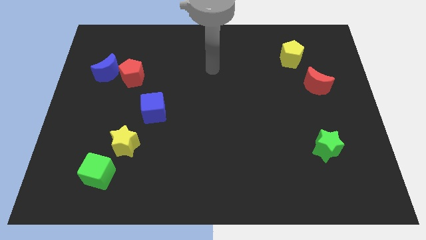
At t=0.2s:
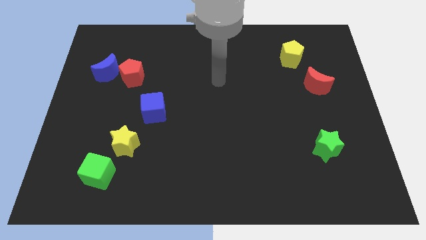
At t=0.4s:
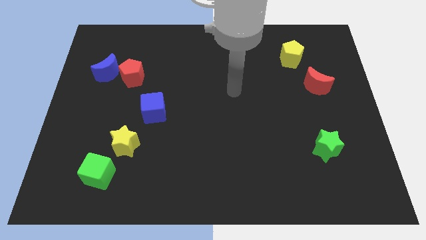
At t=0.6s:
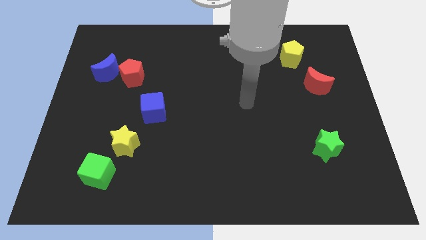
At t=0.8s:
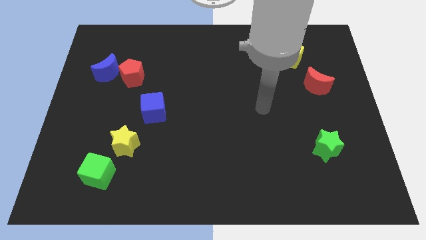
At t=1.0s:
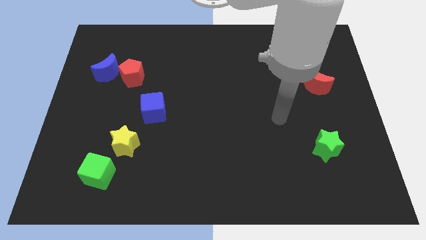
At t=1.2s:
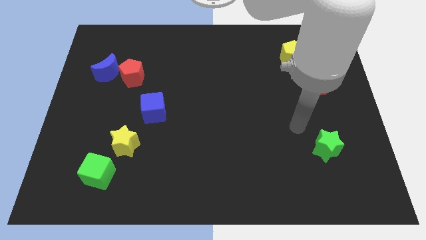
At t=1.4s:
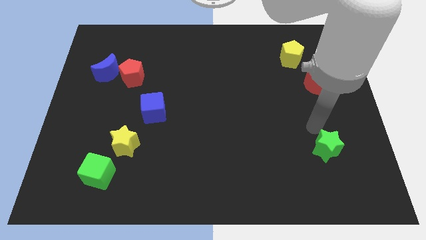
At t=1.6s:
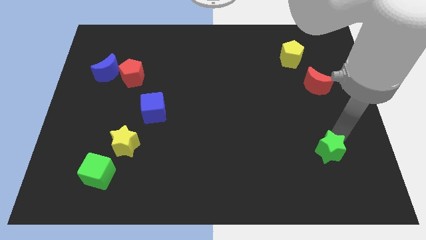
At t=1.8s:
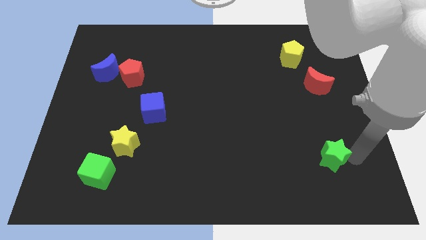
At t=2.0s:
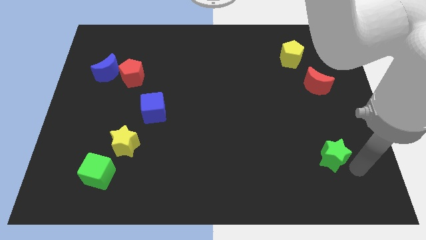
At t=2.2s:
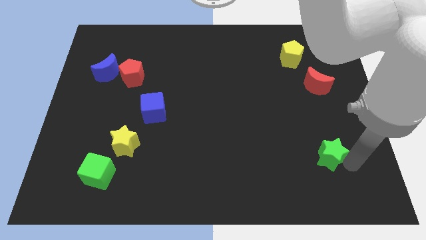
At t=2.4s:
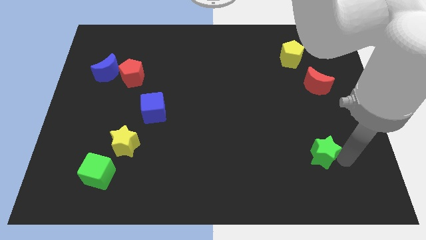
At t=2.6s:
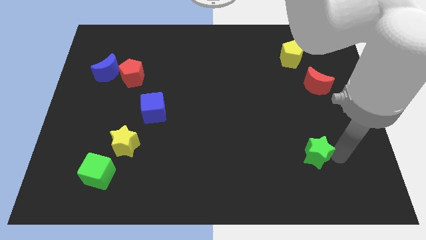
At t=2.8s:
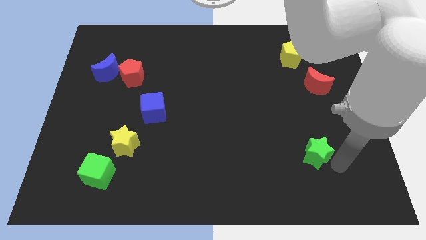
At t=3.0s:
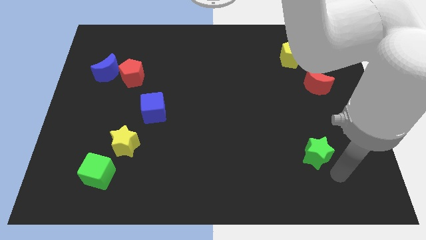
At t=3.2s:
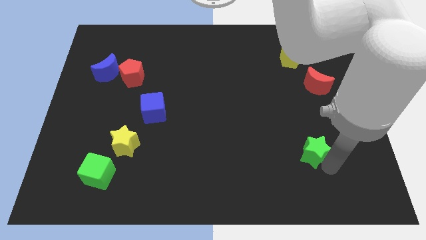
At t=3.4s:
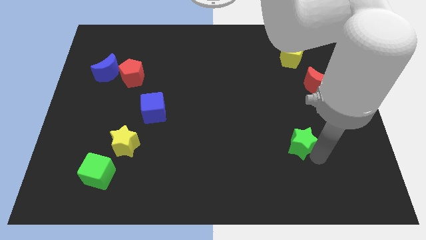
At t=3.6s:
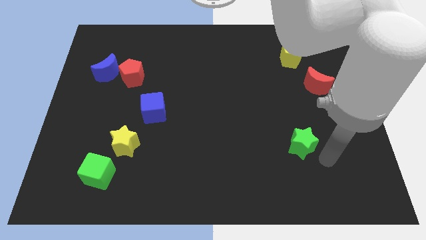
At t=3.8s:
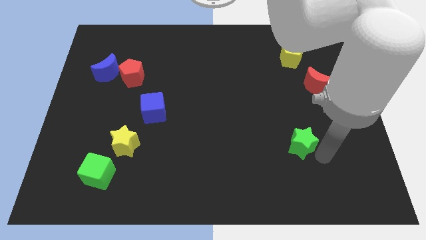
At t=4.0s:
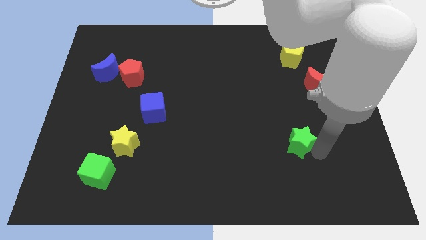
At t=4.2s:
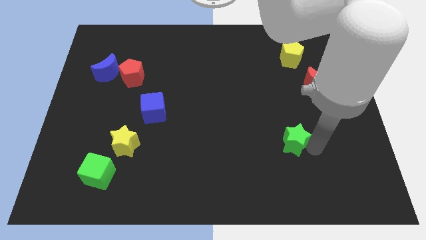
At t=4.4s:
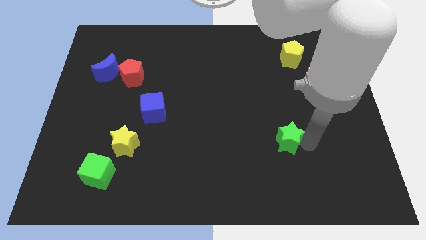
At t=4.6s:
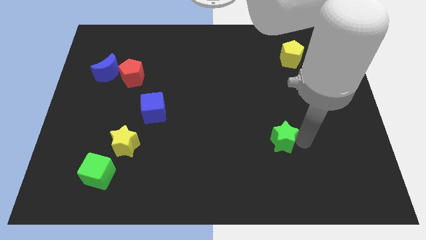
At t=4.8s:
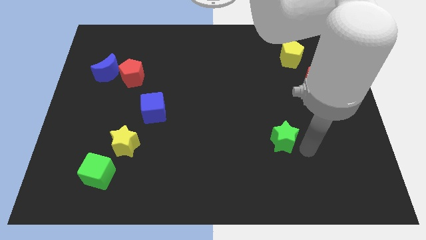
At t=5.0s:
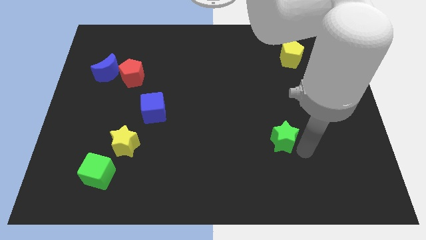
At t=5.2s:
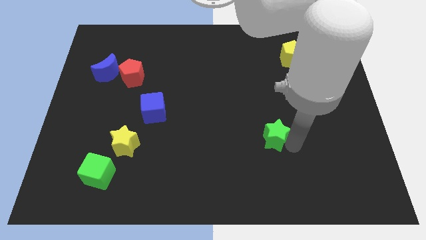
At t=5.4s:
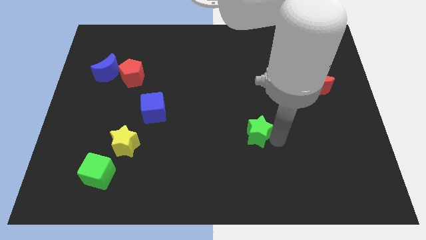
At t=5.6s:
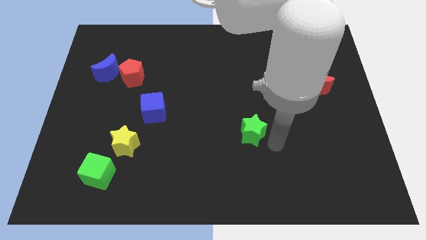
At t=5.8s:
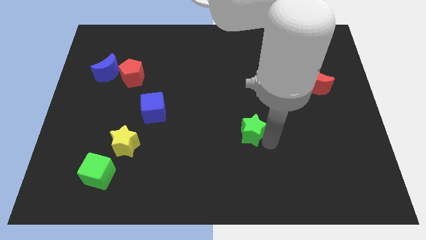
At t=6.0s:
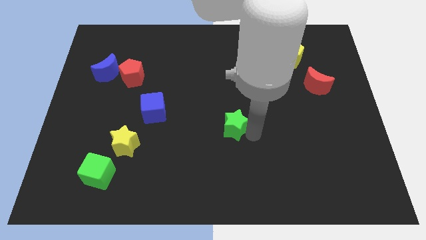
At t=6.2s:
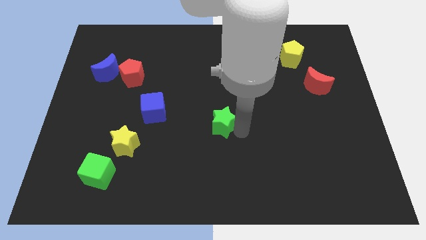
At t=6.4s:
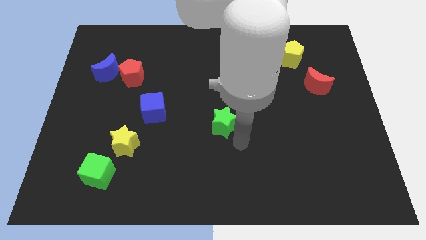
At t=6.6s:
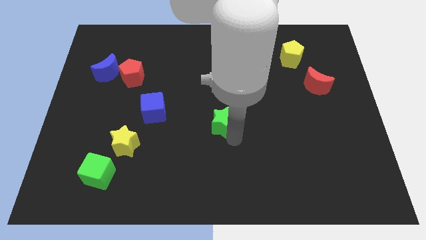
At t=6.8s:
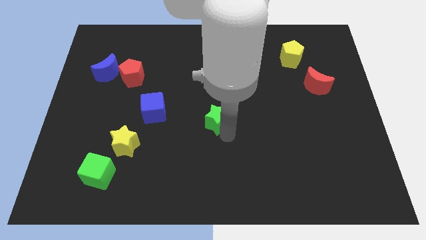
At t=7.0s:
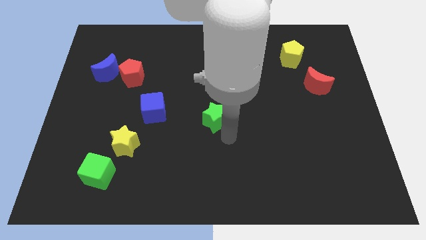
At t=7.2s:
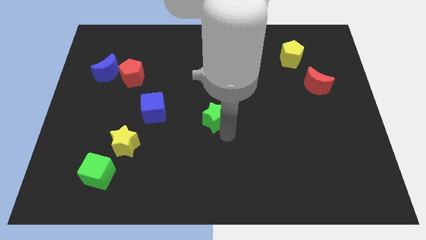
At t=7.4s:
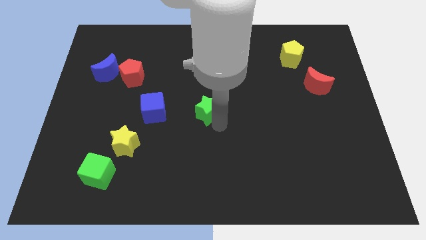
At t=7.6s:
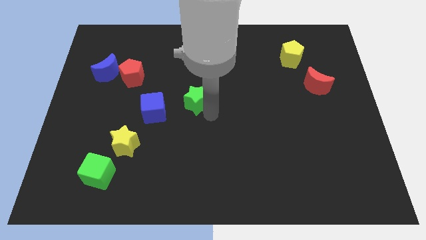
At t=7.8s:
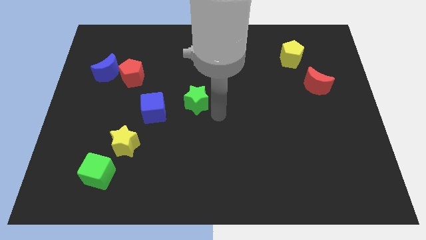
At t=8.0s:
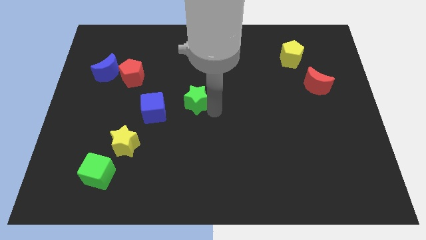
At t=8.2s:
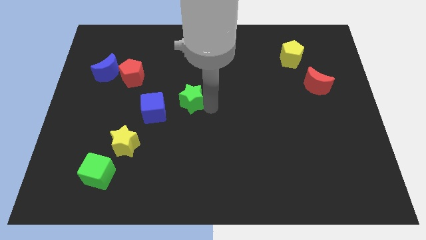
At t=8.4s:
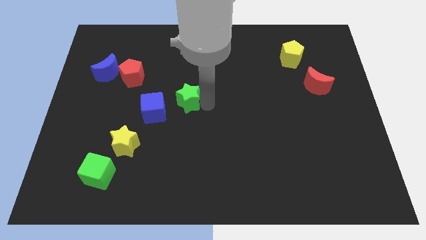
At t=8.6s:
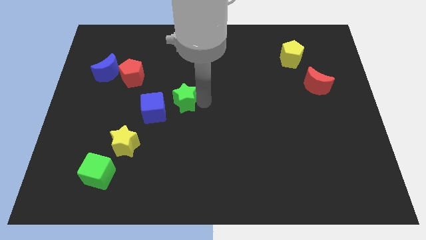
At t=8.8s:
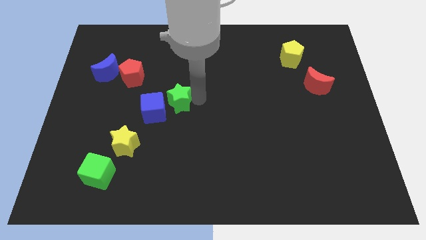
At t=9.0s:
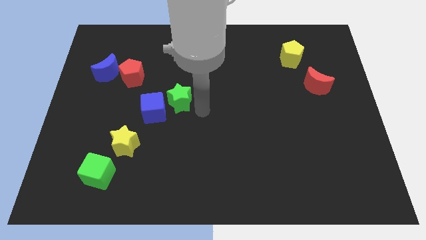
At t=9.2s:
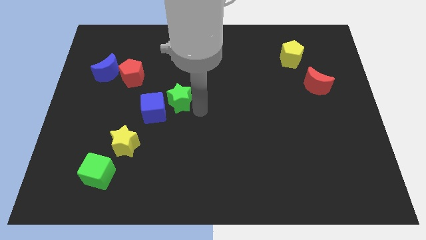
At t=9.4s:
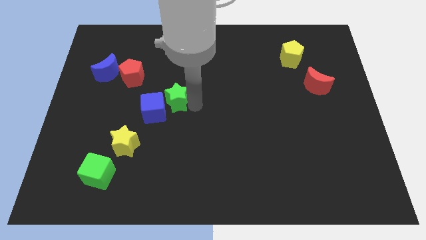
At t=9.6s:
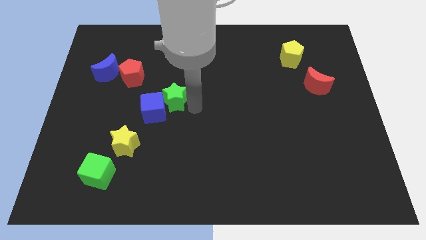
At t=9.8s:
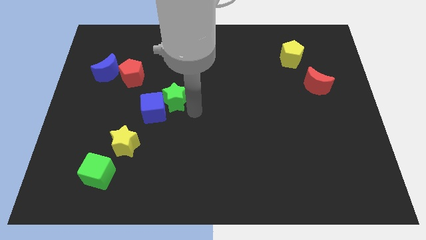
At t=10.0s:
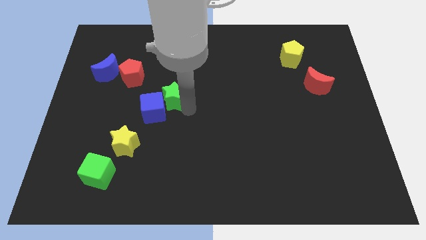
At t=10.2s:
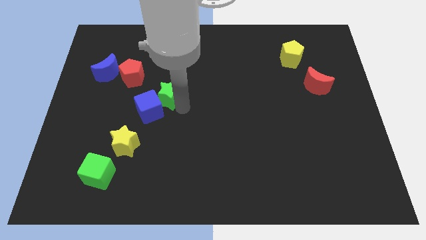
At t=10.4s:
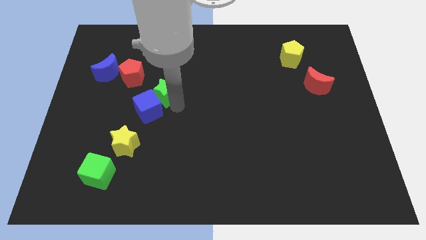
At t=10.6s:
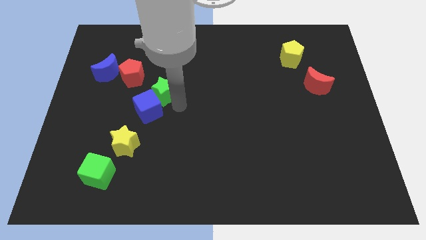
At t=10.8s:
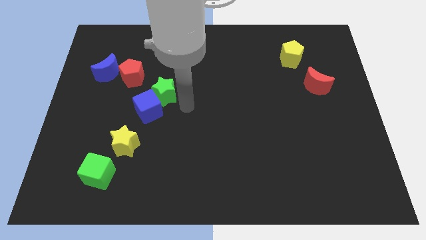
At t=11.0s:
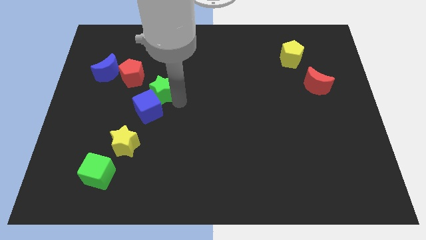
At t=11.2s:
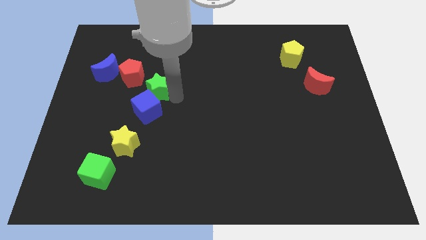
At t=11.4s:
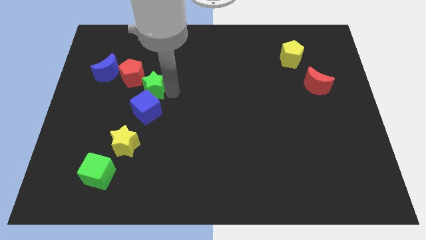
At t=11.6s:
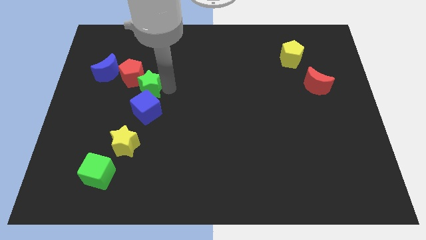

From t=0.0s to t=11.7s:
put the green star towards the red pentagon

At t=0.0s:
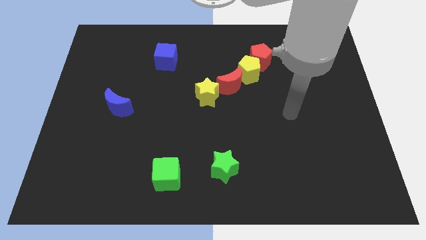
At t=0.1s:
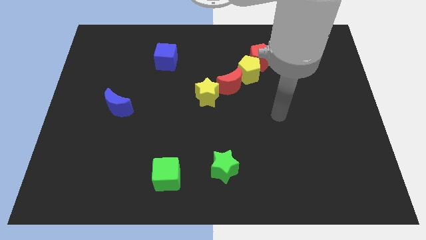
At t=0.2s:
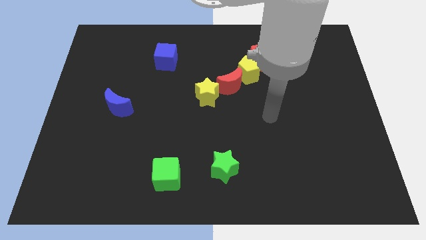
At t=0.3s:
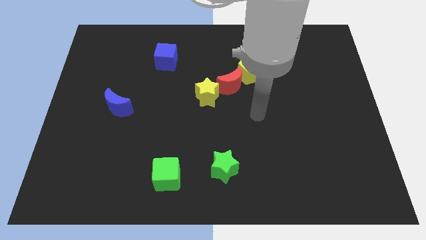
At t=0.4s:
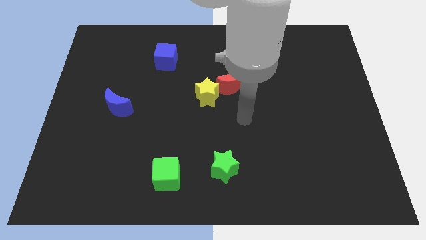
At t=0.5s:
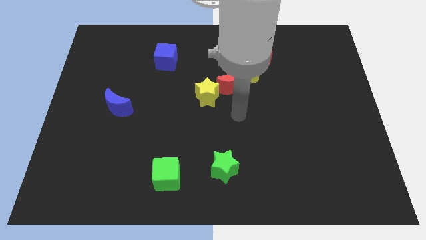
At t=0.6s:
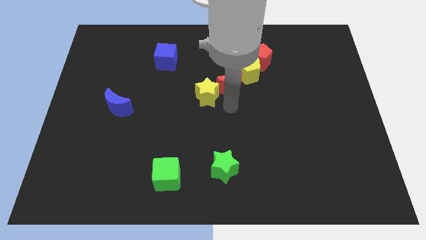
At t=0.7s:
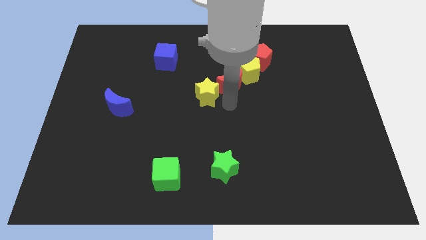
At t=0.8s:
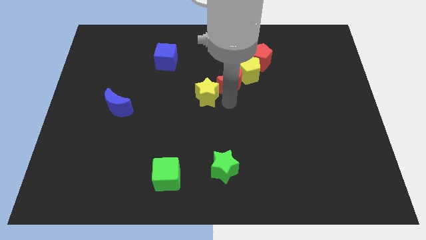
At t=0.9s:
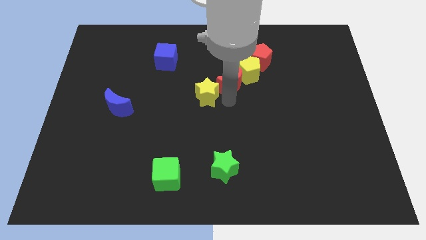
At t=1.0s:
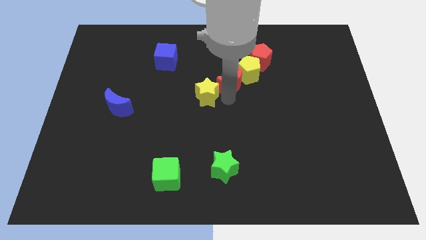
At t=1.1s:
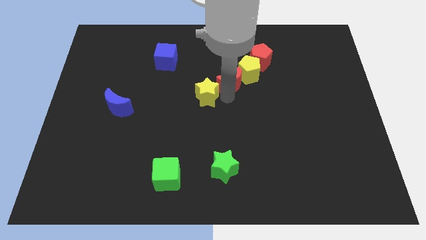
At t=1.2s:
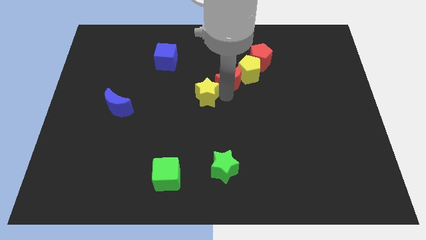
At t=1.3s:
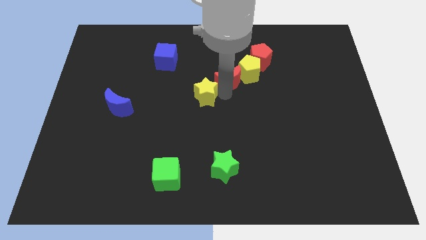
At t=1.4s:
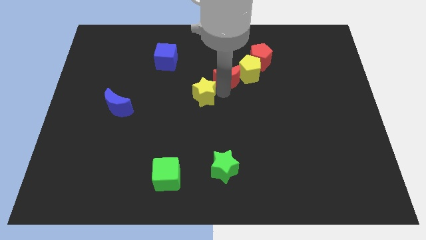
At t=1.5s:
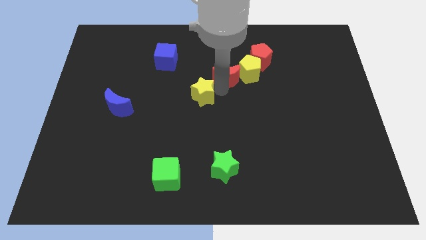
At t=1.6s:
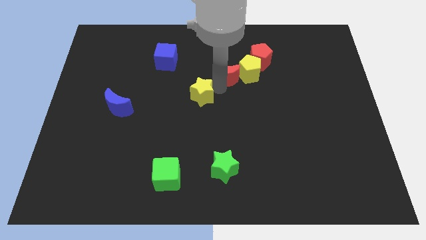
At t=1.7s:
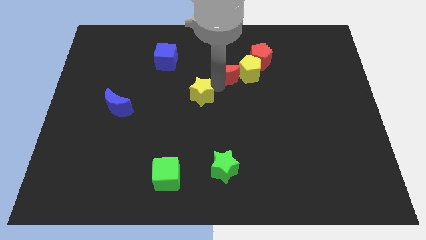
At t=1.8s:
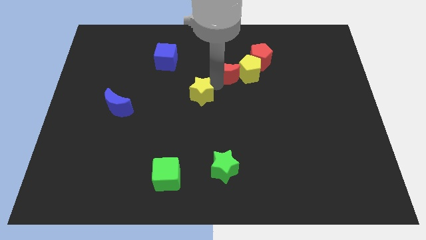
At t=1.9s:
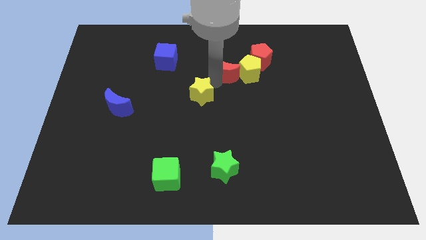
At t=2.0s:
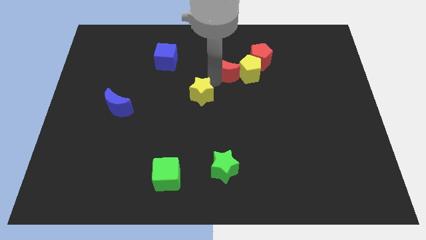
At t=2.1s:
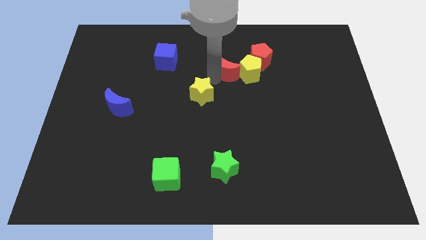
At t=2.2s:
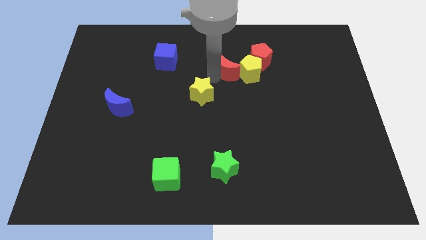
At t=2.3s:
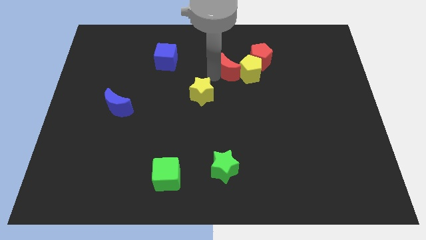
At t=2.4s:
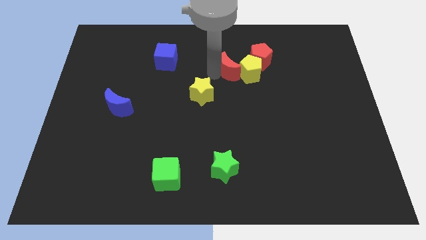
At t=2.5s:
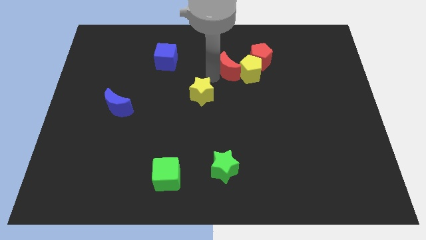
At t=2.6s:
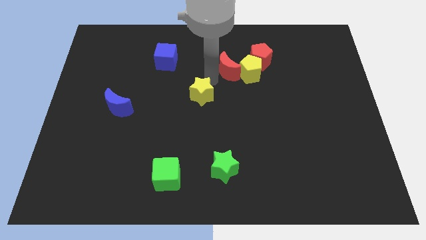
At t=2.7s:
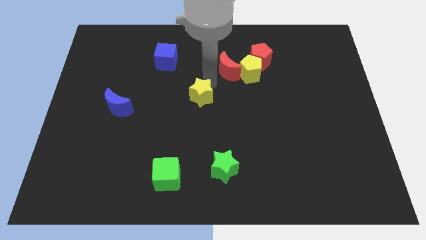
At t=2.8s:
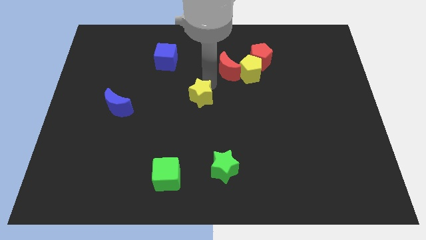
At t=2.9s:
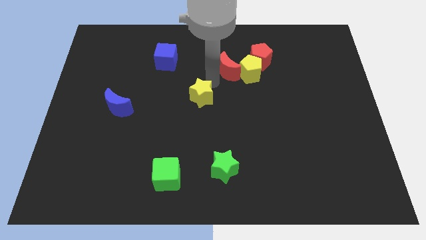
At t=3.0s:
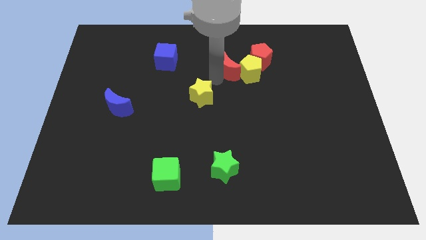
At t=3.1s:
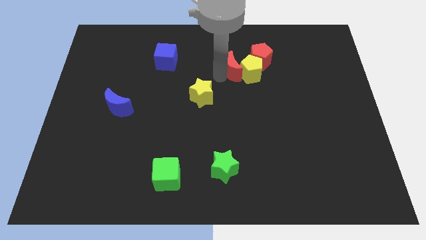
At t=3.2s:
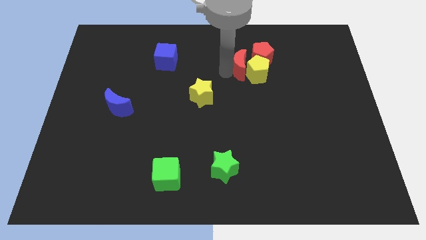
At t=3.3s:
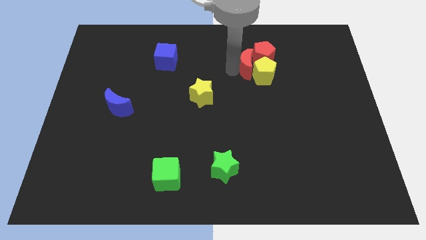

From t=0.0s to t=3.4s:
slide the red moon close to the red pentagon
